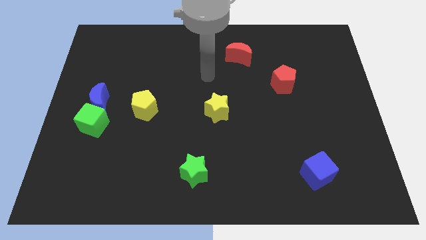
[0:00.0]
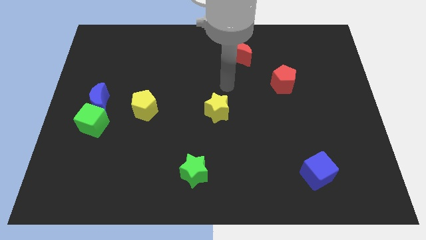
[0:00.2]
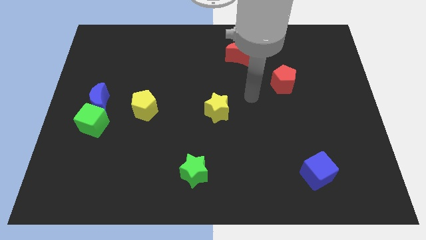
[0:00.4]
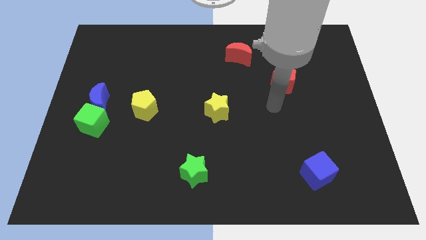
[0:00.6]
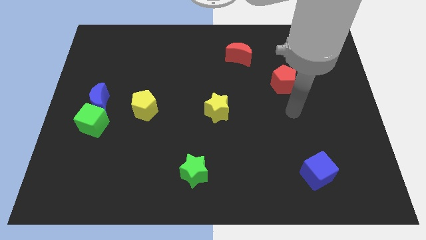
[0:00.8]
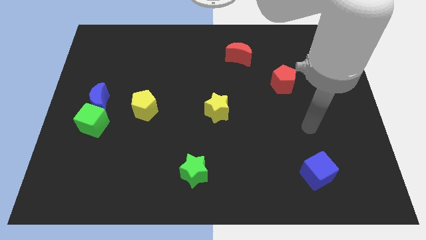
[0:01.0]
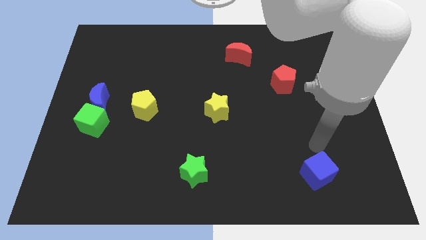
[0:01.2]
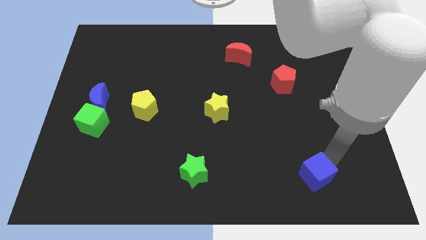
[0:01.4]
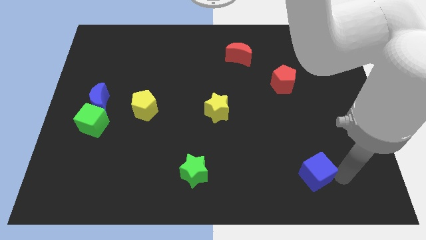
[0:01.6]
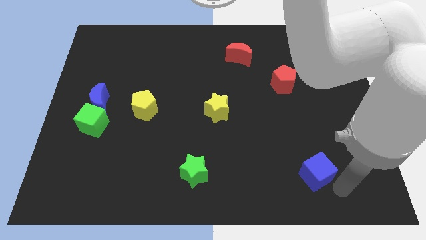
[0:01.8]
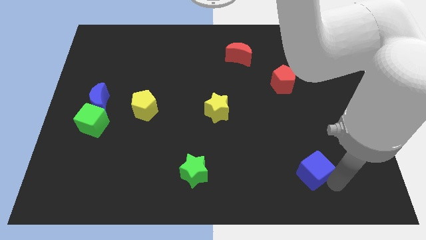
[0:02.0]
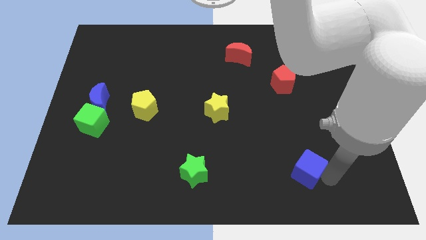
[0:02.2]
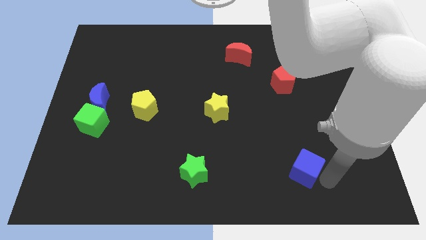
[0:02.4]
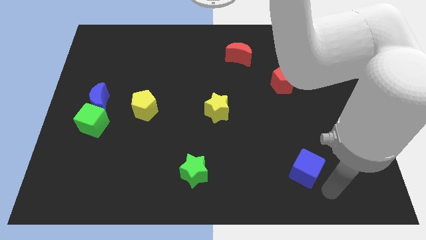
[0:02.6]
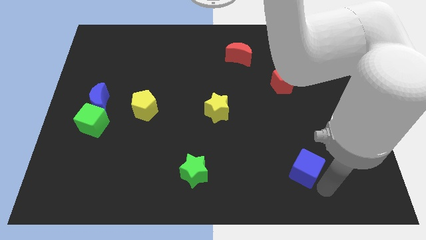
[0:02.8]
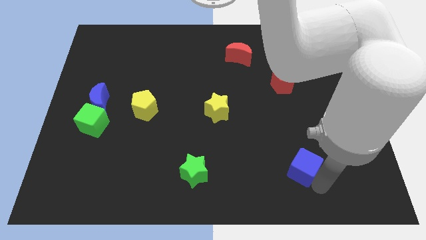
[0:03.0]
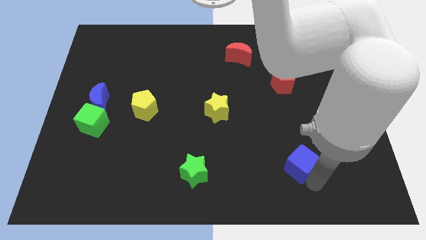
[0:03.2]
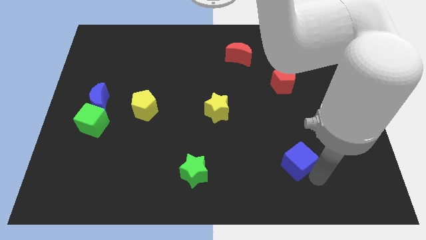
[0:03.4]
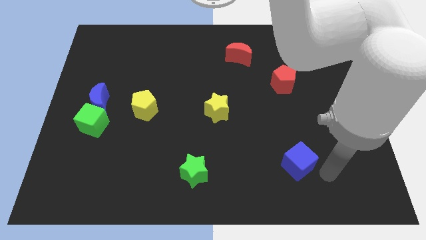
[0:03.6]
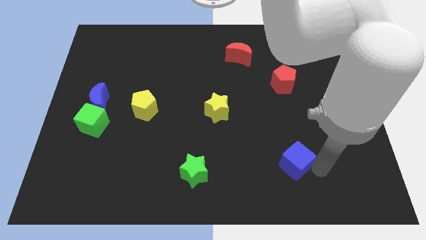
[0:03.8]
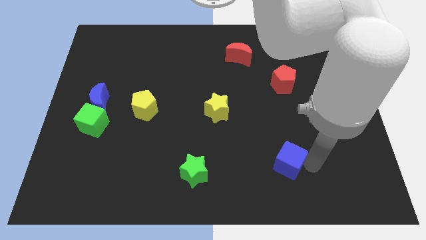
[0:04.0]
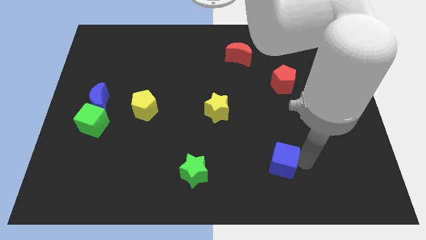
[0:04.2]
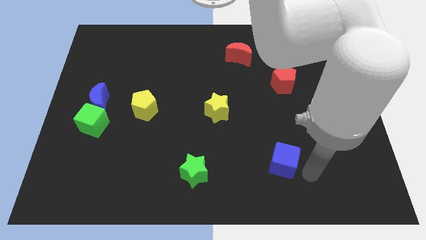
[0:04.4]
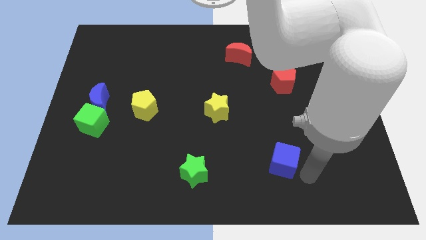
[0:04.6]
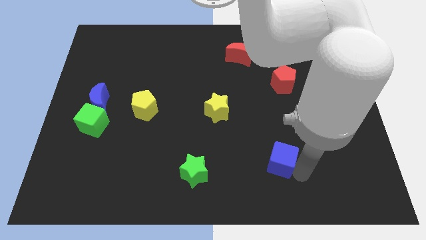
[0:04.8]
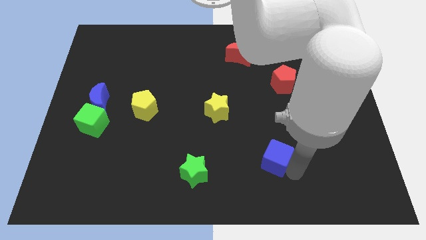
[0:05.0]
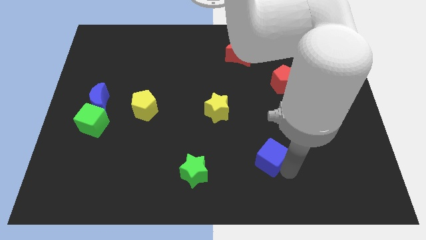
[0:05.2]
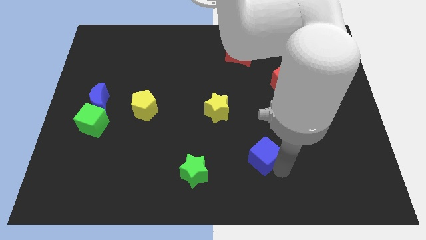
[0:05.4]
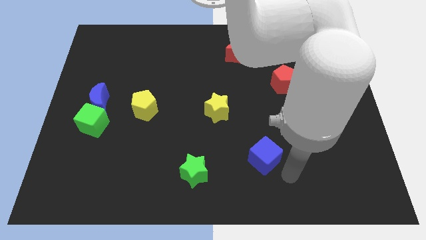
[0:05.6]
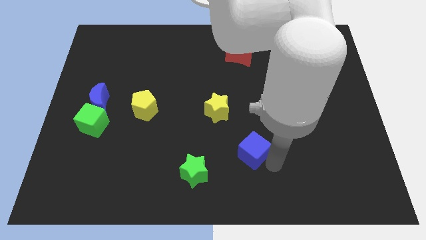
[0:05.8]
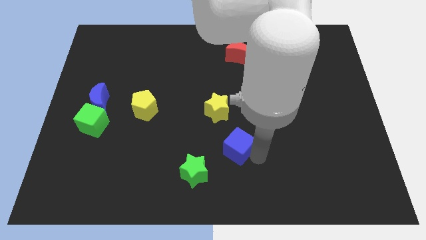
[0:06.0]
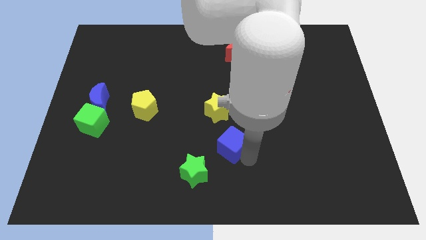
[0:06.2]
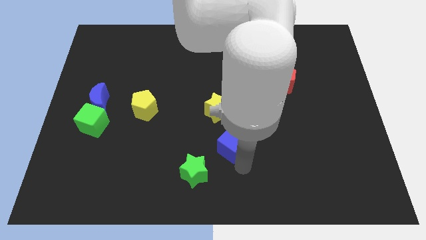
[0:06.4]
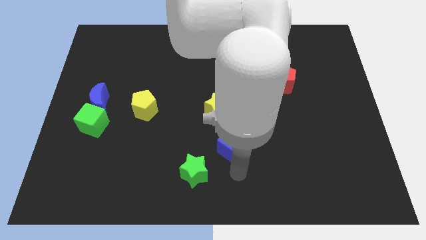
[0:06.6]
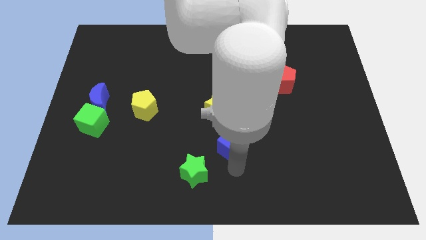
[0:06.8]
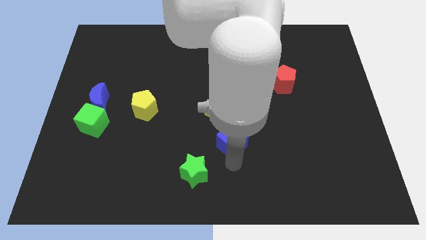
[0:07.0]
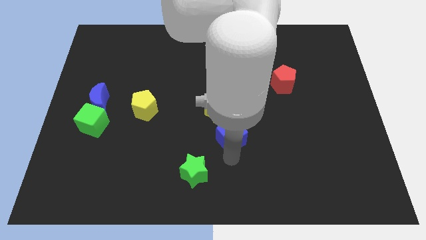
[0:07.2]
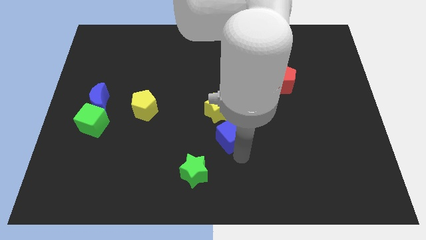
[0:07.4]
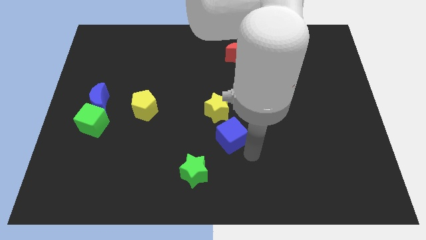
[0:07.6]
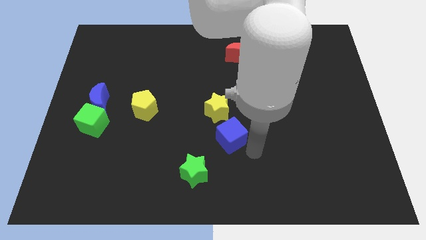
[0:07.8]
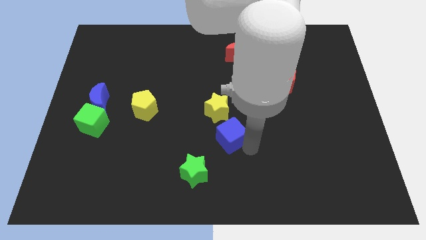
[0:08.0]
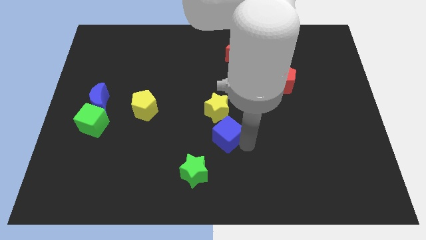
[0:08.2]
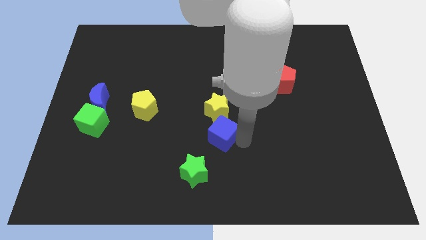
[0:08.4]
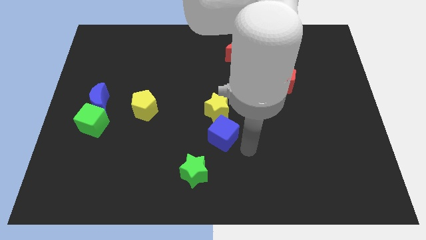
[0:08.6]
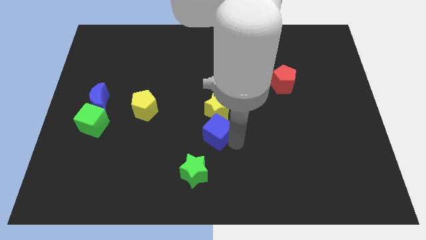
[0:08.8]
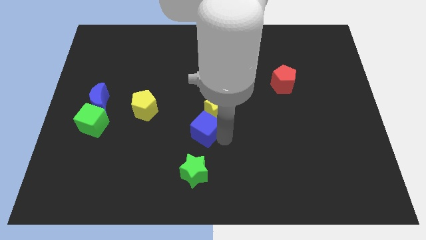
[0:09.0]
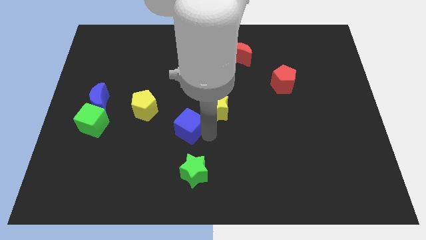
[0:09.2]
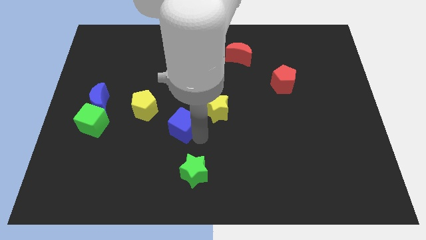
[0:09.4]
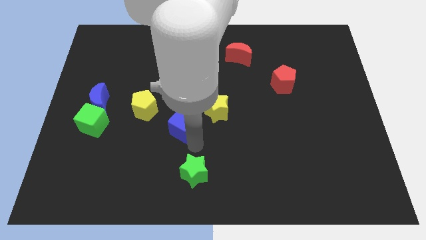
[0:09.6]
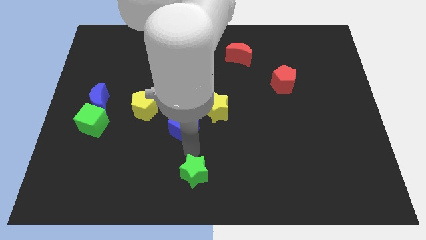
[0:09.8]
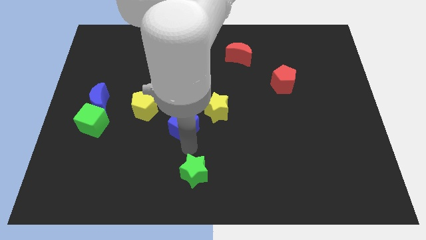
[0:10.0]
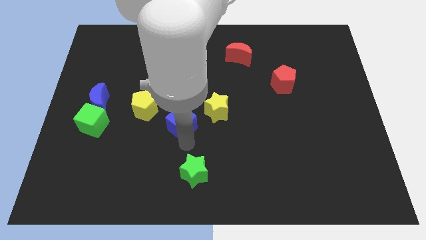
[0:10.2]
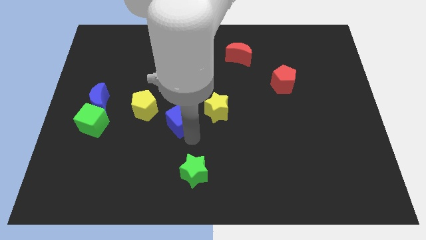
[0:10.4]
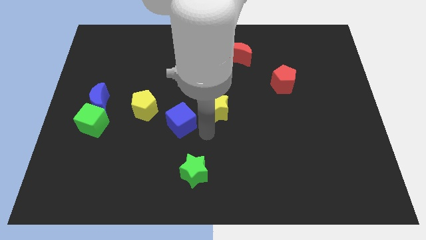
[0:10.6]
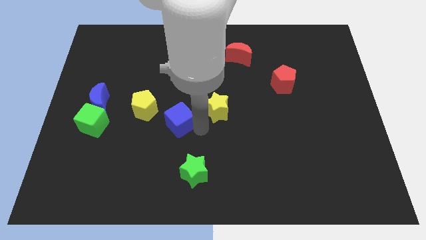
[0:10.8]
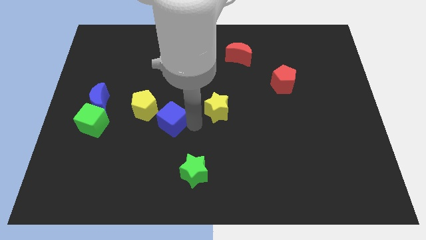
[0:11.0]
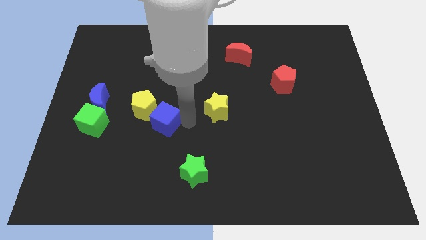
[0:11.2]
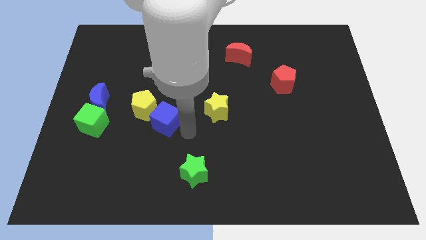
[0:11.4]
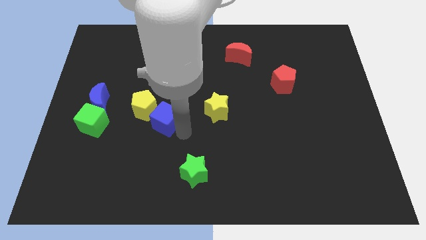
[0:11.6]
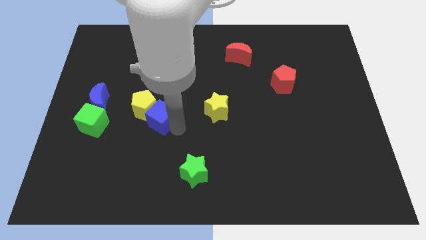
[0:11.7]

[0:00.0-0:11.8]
push the blue cube towards the yellow pentagon

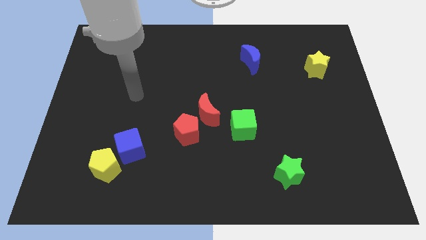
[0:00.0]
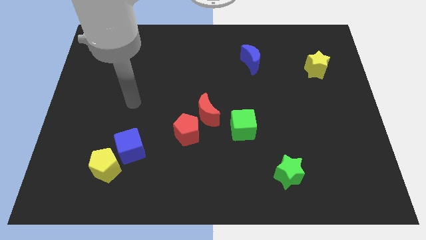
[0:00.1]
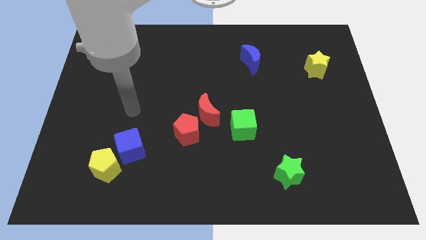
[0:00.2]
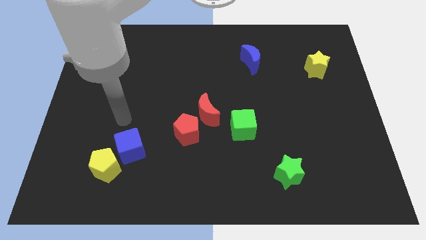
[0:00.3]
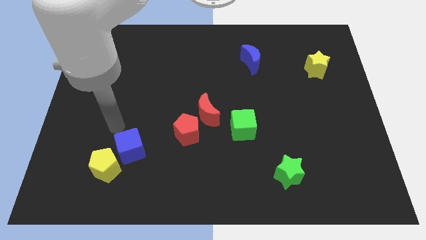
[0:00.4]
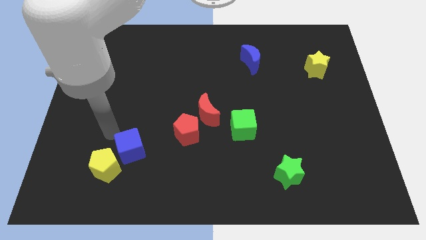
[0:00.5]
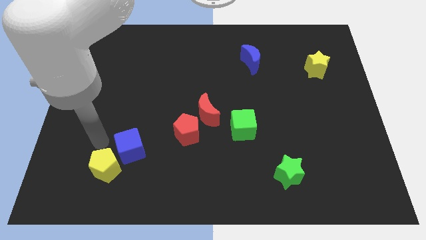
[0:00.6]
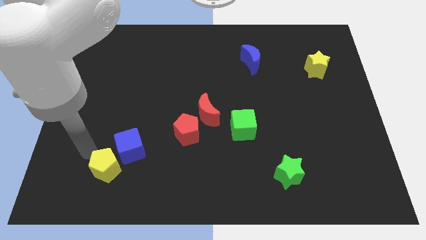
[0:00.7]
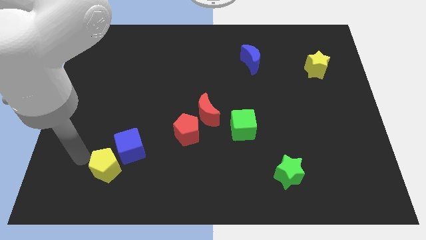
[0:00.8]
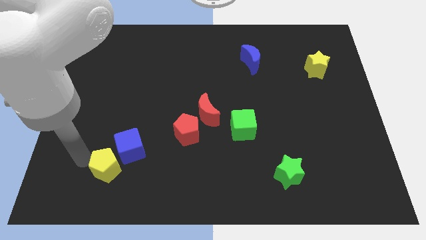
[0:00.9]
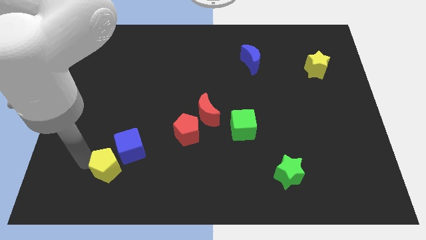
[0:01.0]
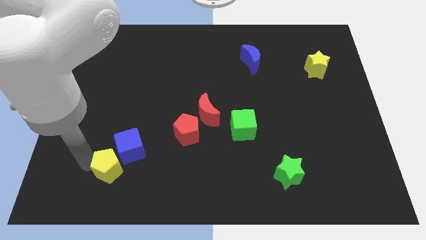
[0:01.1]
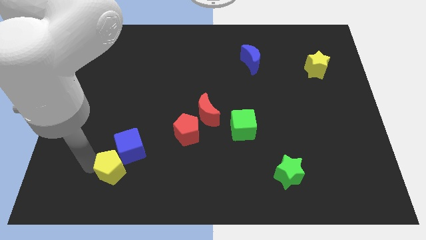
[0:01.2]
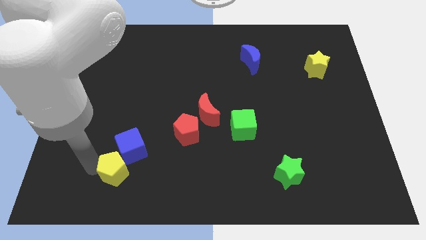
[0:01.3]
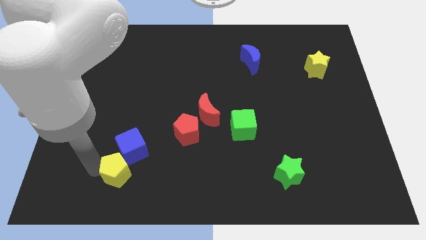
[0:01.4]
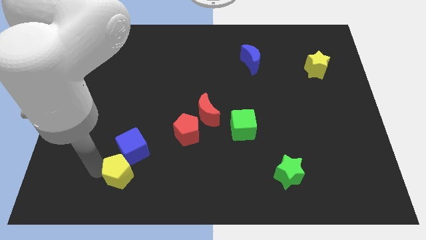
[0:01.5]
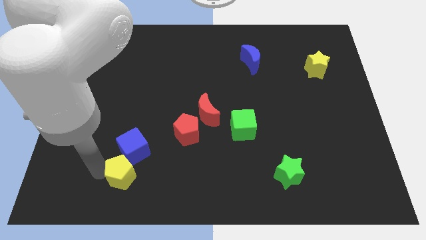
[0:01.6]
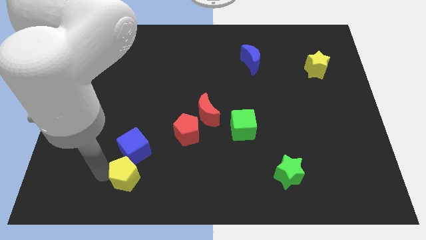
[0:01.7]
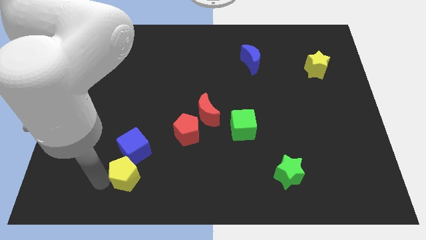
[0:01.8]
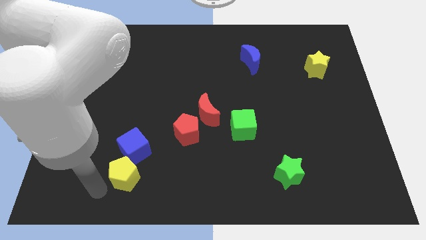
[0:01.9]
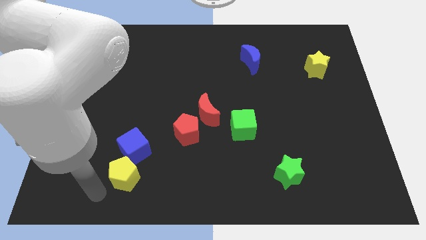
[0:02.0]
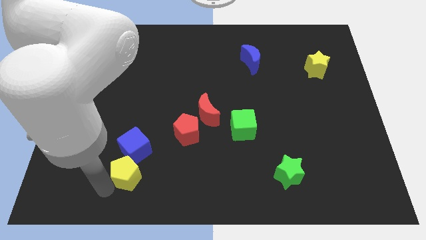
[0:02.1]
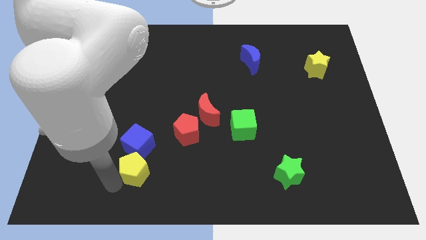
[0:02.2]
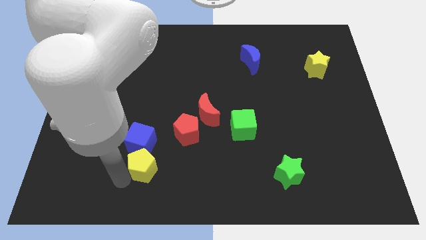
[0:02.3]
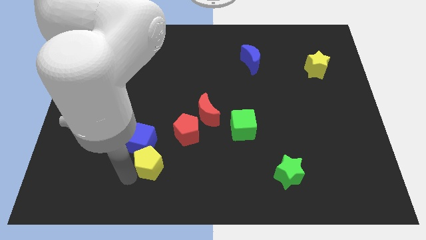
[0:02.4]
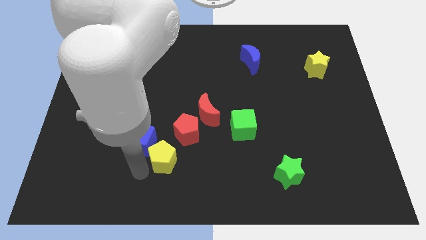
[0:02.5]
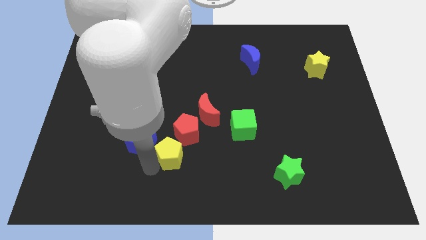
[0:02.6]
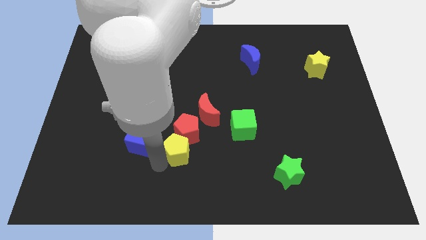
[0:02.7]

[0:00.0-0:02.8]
slide the yellow pentagon close to the red pentagon
